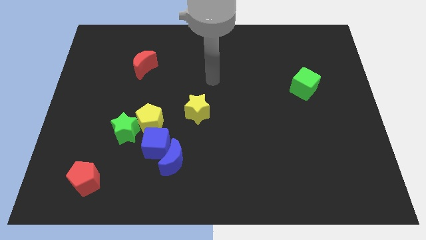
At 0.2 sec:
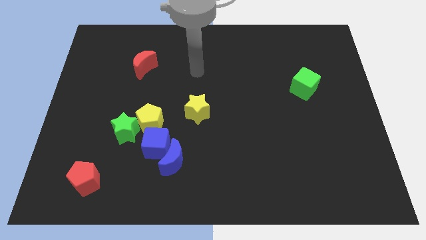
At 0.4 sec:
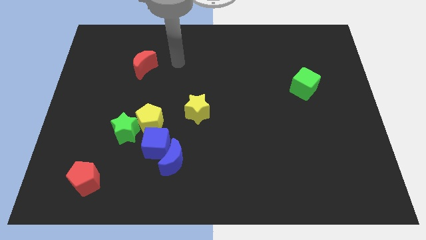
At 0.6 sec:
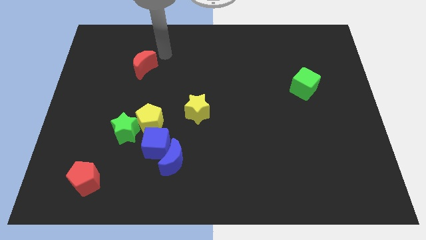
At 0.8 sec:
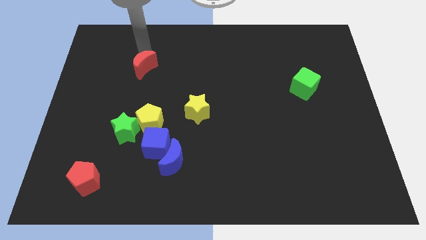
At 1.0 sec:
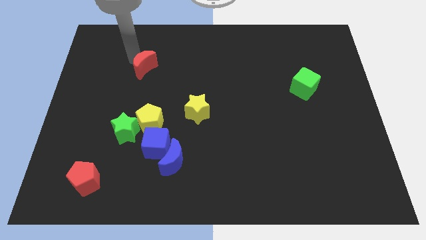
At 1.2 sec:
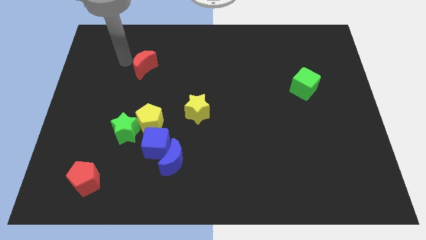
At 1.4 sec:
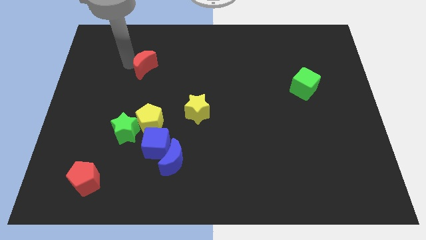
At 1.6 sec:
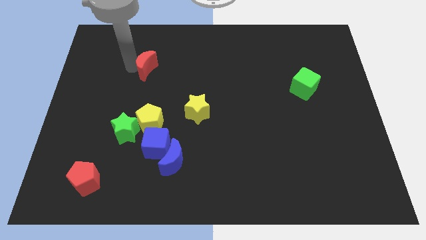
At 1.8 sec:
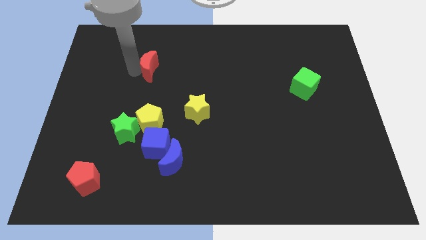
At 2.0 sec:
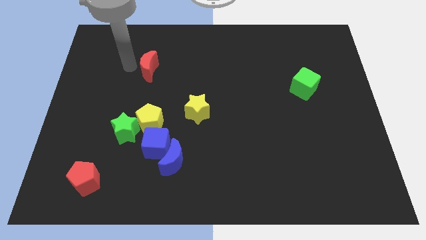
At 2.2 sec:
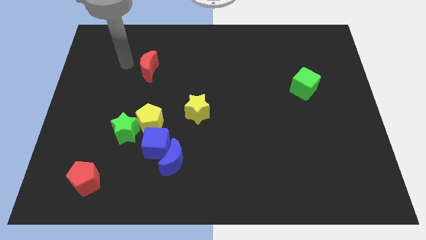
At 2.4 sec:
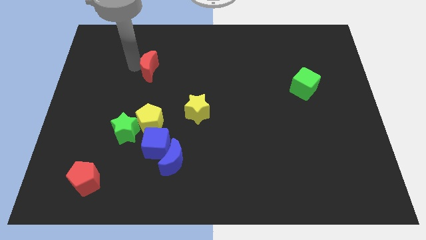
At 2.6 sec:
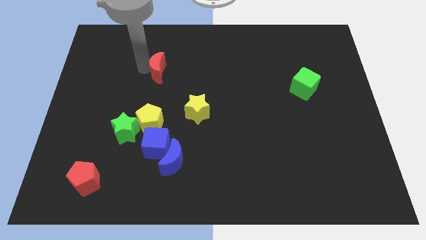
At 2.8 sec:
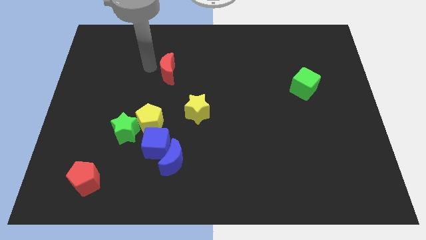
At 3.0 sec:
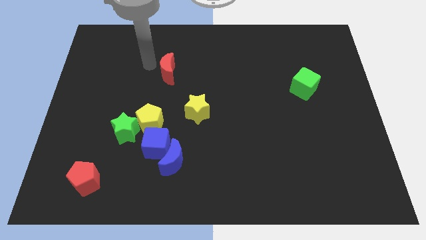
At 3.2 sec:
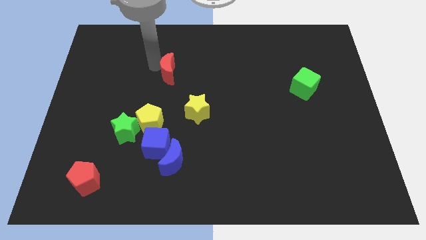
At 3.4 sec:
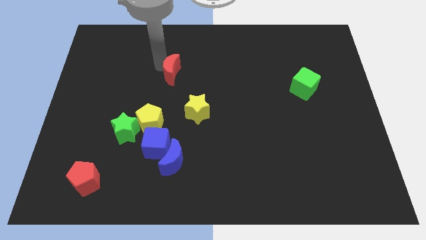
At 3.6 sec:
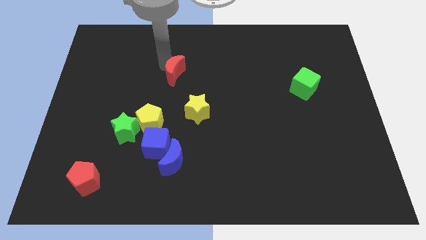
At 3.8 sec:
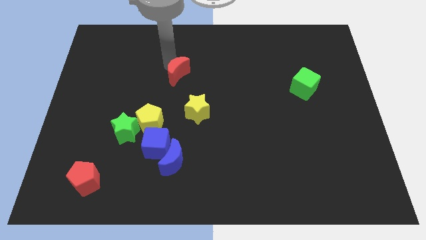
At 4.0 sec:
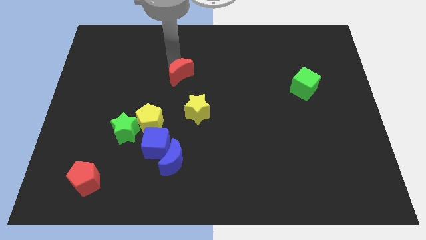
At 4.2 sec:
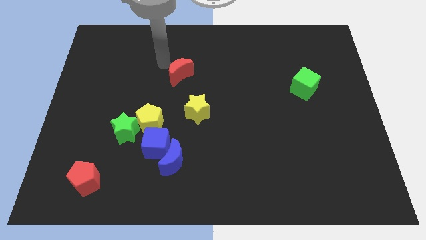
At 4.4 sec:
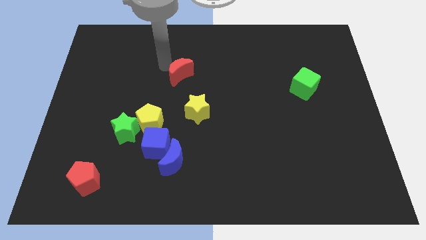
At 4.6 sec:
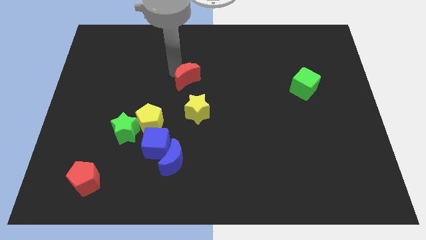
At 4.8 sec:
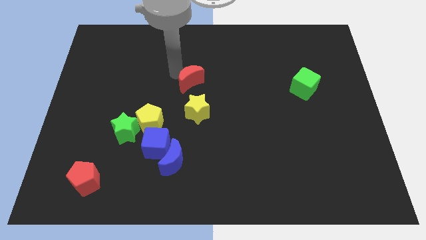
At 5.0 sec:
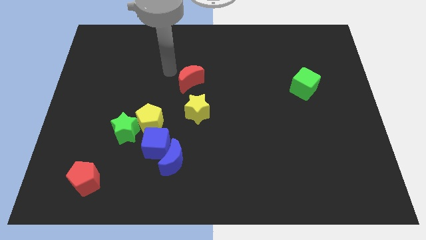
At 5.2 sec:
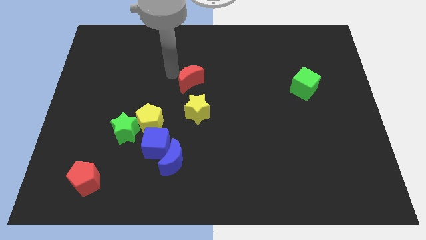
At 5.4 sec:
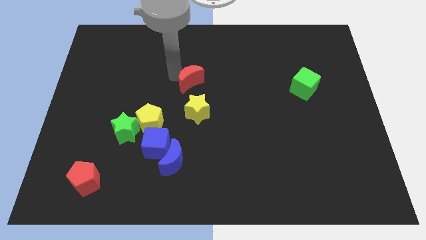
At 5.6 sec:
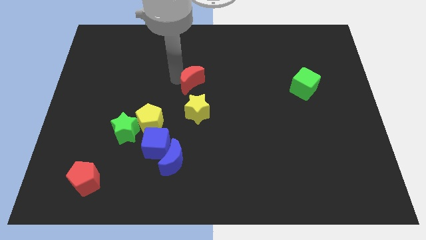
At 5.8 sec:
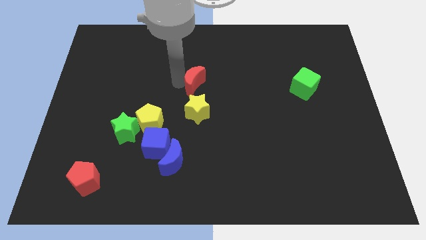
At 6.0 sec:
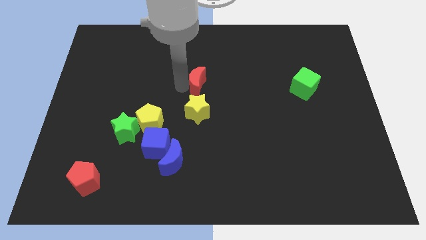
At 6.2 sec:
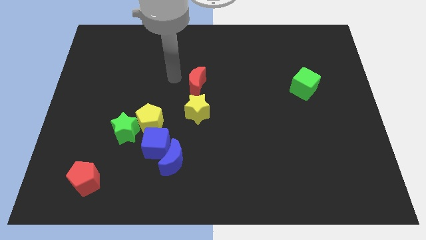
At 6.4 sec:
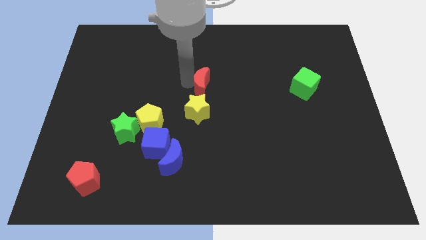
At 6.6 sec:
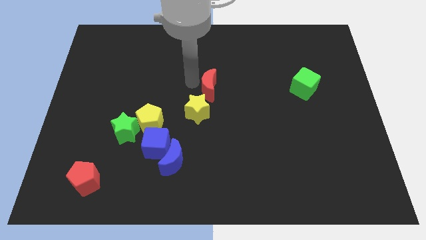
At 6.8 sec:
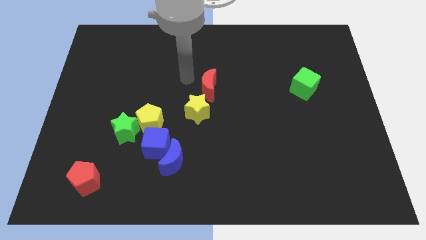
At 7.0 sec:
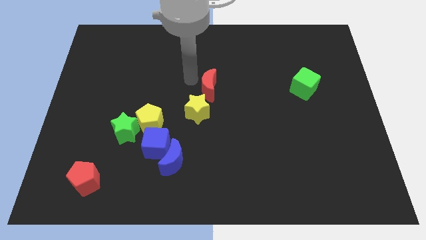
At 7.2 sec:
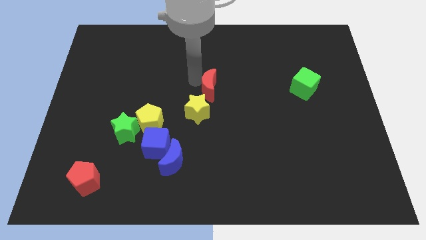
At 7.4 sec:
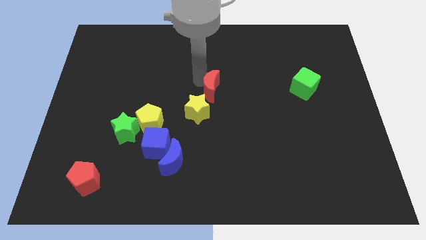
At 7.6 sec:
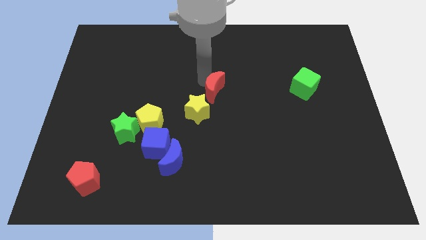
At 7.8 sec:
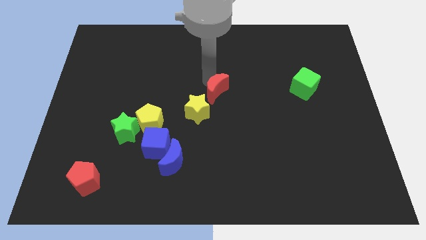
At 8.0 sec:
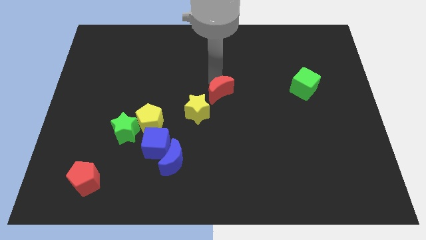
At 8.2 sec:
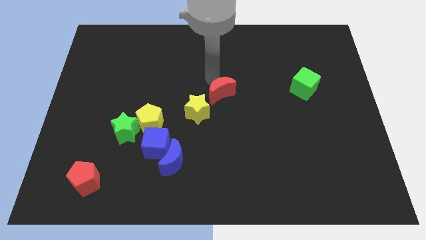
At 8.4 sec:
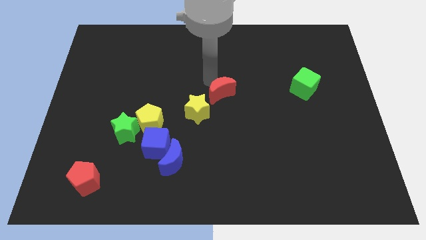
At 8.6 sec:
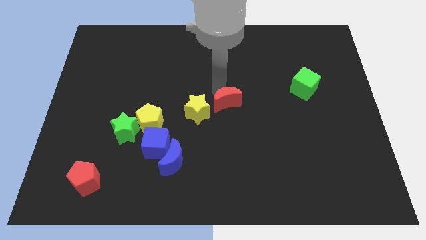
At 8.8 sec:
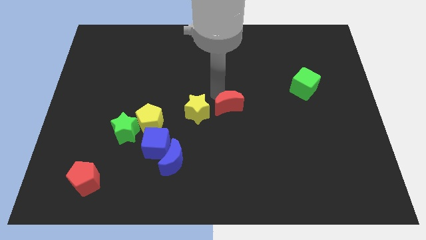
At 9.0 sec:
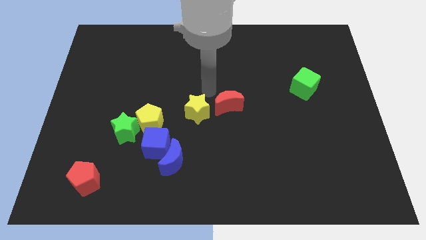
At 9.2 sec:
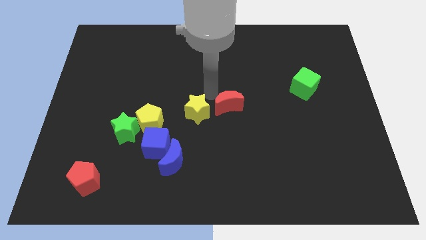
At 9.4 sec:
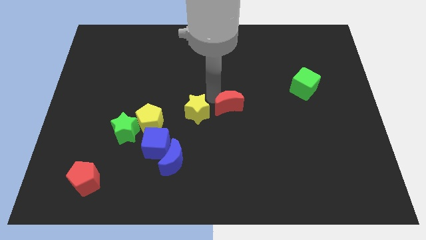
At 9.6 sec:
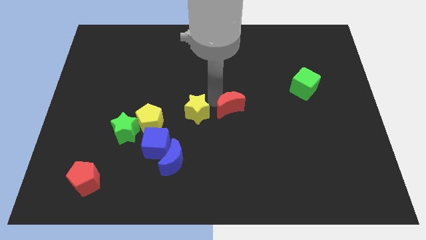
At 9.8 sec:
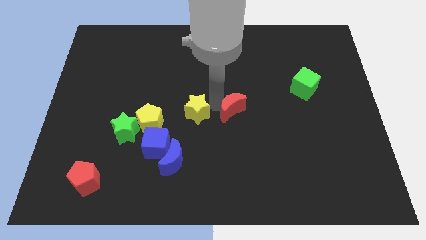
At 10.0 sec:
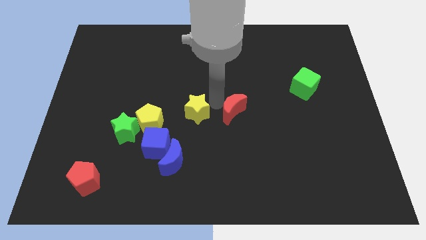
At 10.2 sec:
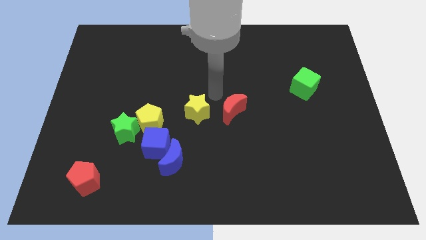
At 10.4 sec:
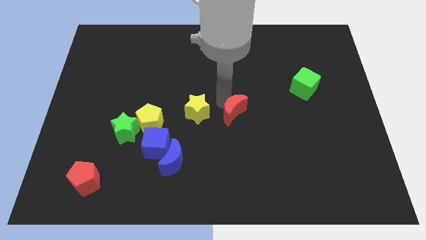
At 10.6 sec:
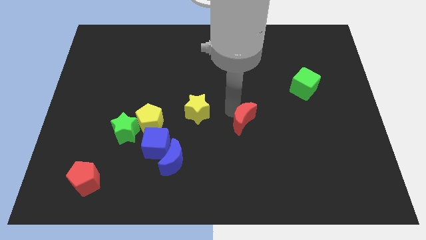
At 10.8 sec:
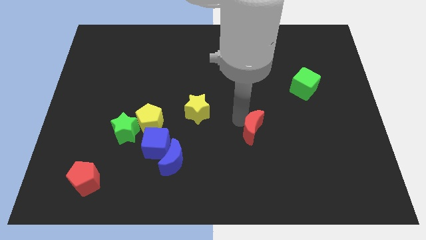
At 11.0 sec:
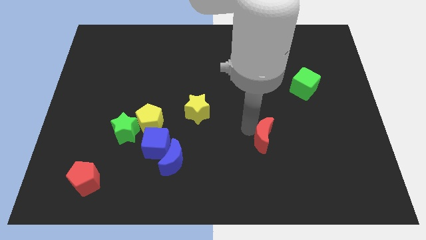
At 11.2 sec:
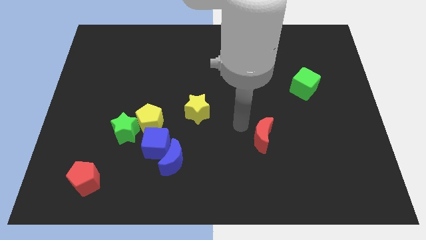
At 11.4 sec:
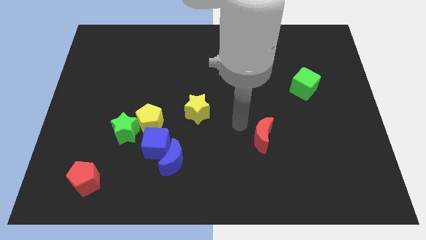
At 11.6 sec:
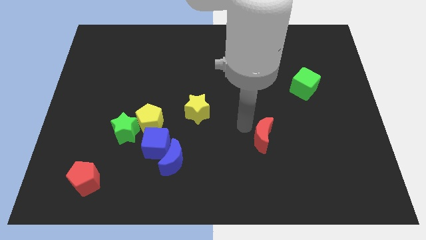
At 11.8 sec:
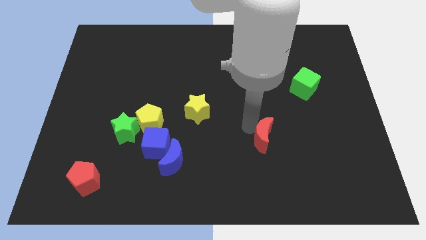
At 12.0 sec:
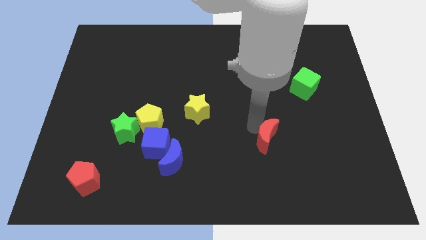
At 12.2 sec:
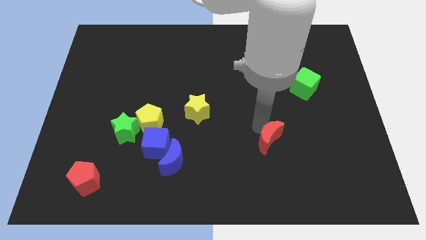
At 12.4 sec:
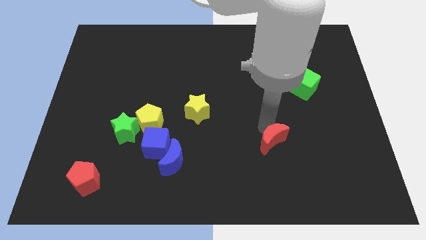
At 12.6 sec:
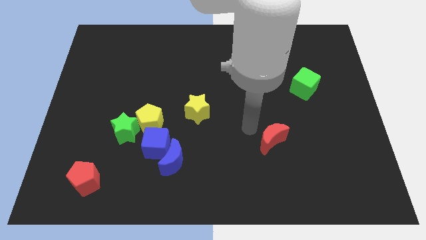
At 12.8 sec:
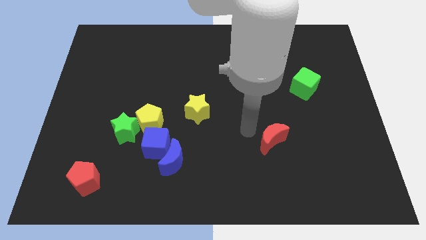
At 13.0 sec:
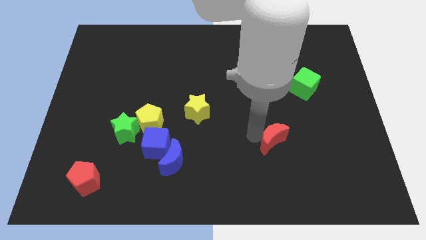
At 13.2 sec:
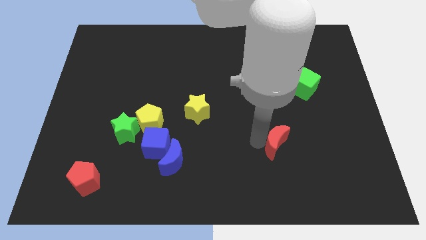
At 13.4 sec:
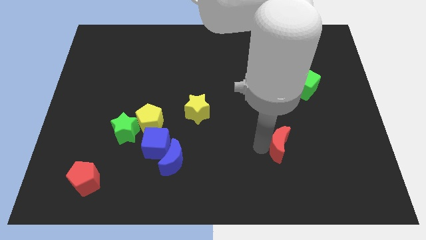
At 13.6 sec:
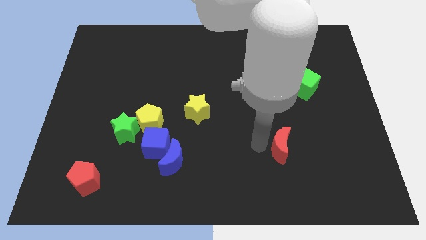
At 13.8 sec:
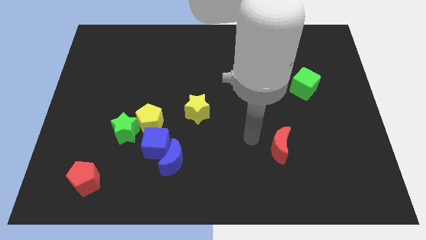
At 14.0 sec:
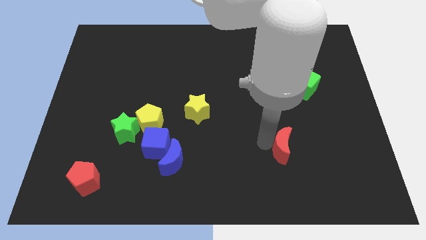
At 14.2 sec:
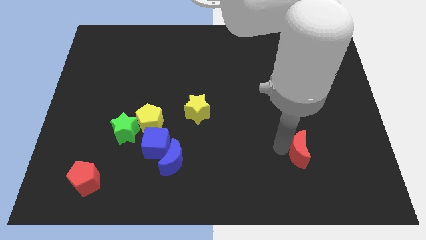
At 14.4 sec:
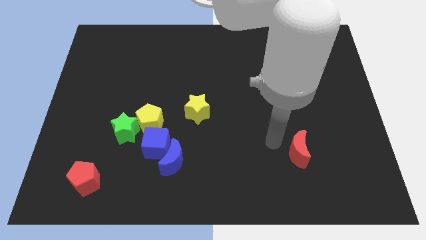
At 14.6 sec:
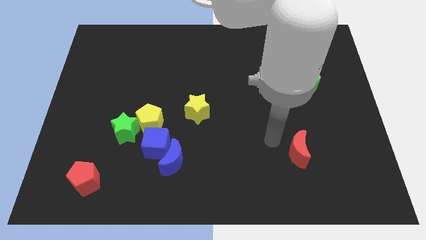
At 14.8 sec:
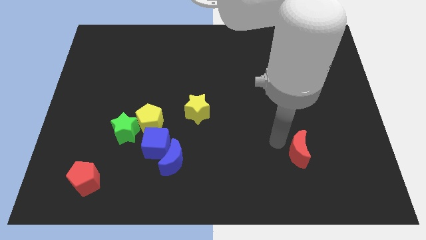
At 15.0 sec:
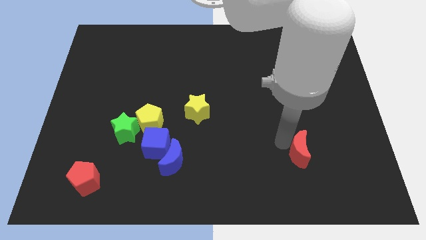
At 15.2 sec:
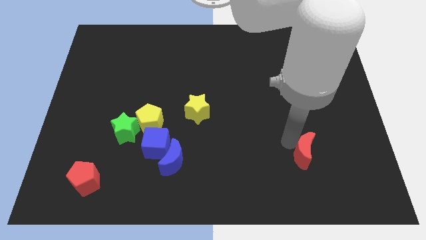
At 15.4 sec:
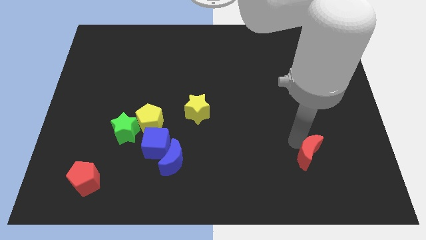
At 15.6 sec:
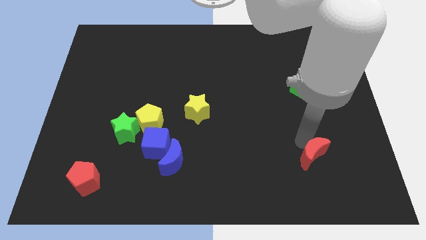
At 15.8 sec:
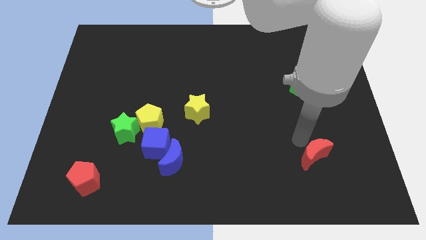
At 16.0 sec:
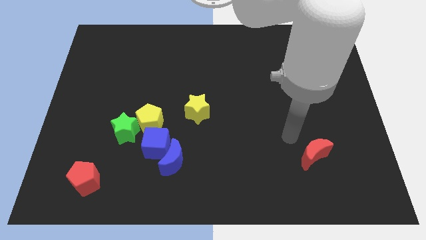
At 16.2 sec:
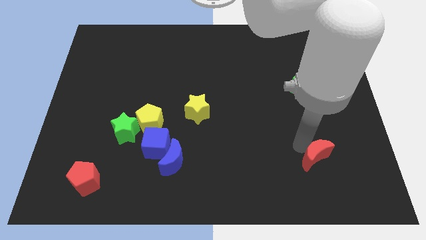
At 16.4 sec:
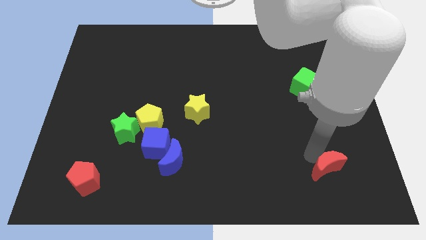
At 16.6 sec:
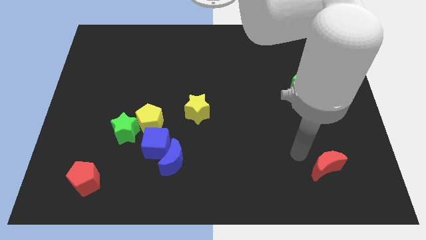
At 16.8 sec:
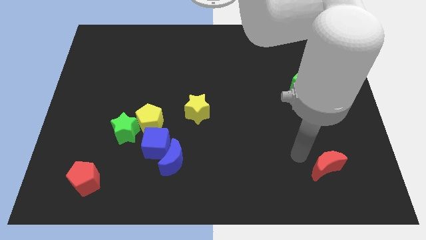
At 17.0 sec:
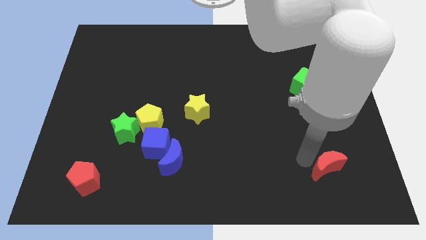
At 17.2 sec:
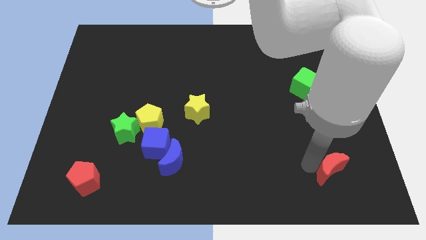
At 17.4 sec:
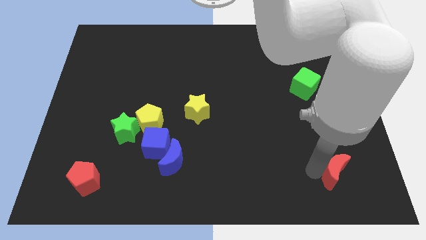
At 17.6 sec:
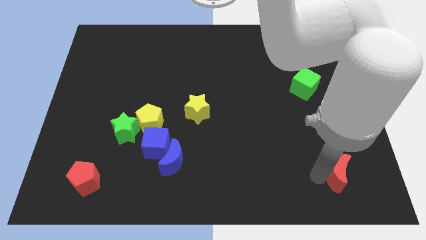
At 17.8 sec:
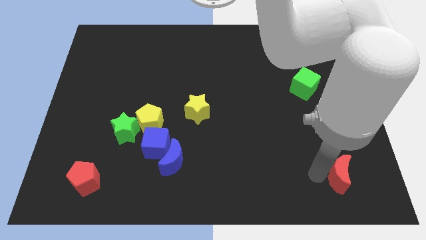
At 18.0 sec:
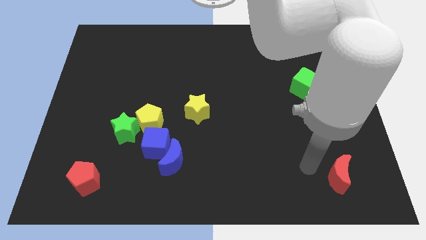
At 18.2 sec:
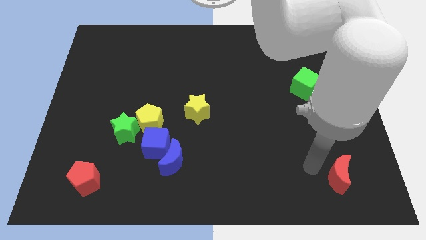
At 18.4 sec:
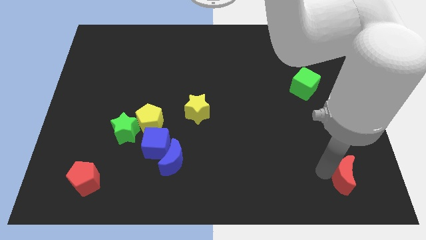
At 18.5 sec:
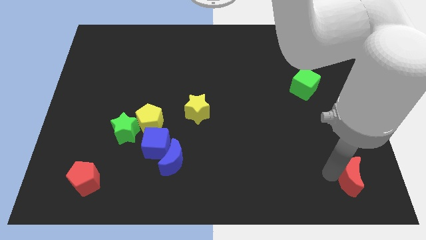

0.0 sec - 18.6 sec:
move the red moon to the lower right corner
